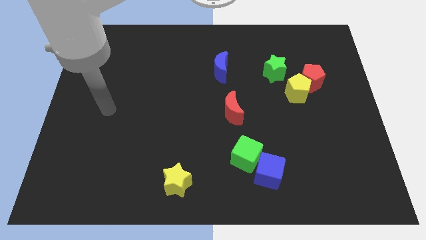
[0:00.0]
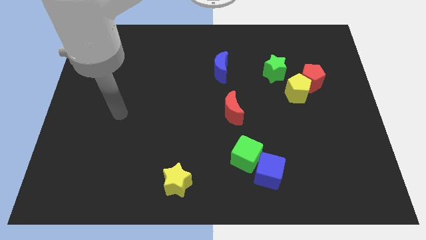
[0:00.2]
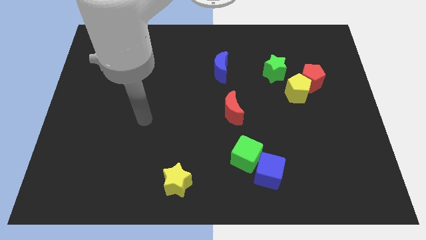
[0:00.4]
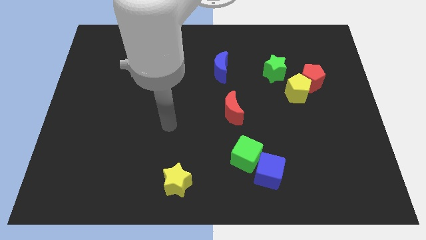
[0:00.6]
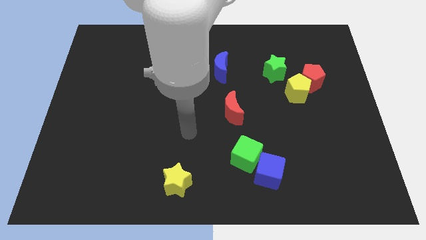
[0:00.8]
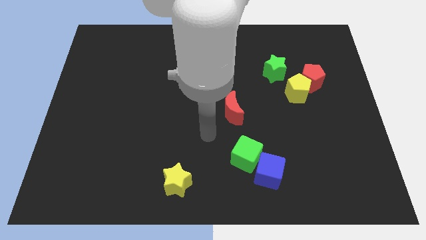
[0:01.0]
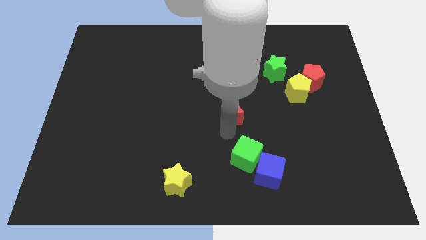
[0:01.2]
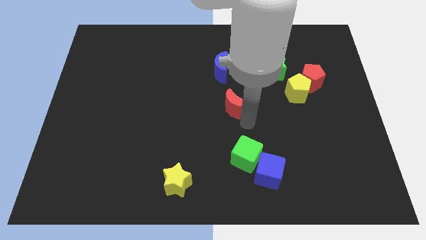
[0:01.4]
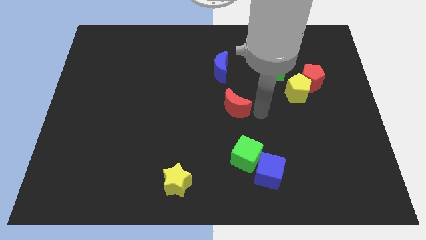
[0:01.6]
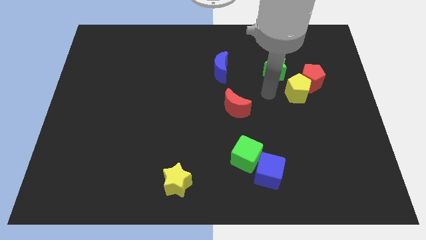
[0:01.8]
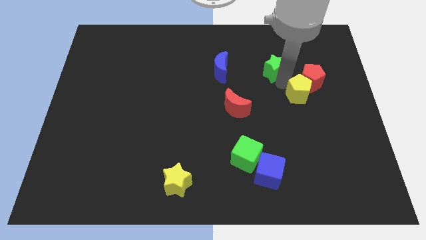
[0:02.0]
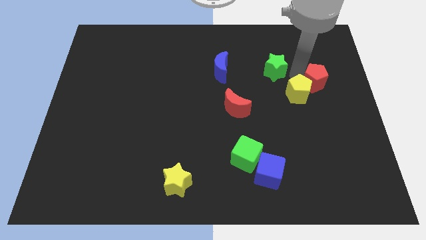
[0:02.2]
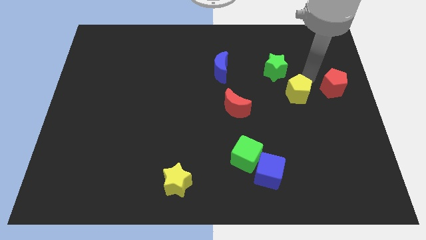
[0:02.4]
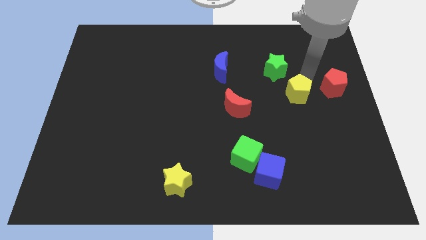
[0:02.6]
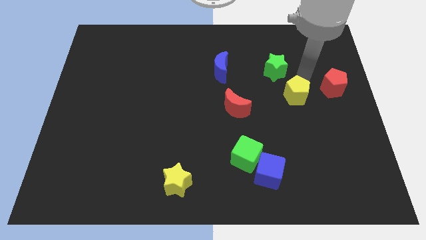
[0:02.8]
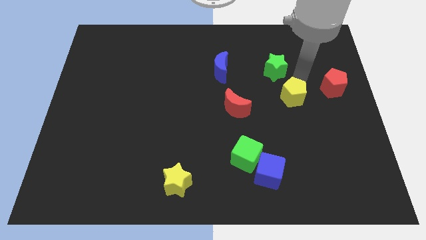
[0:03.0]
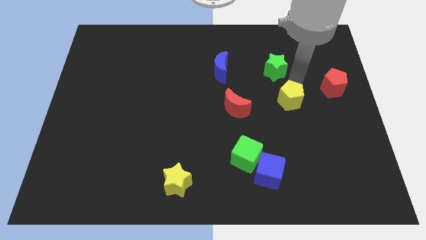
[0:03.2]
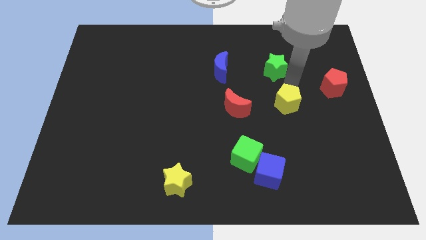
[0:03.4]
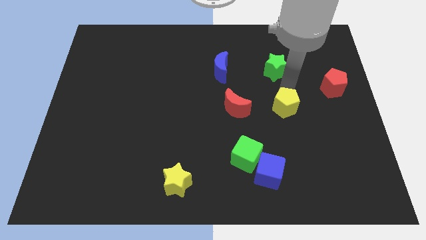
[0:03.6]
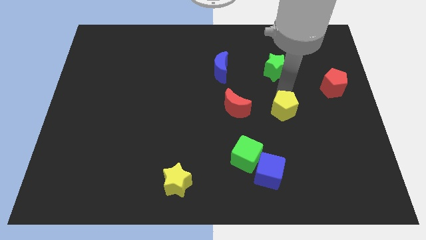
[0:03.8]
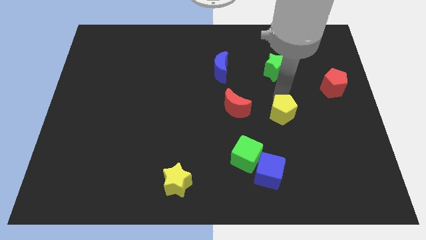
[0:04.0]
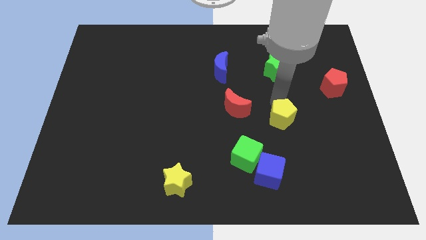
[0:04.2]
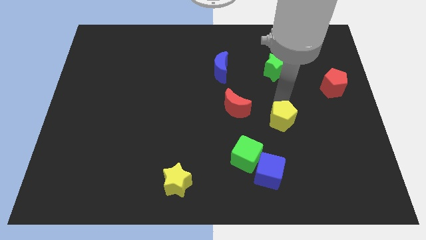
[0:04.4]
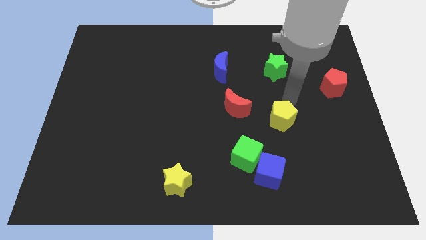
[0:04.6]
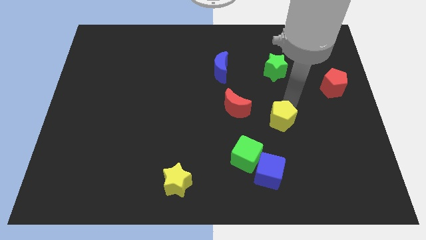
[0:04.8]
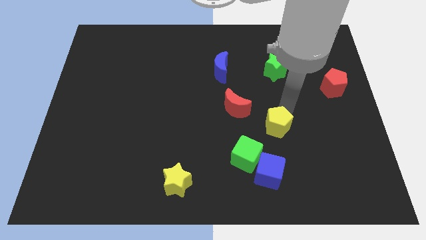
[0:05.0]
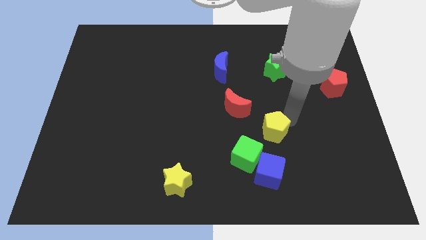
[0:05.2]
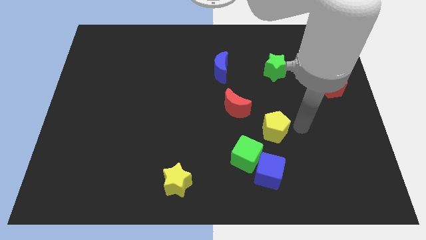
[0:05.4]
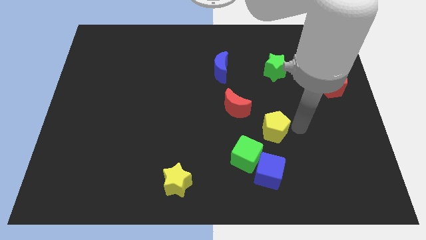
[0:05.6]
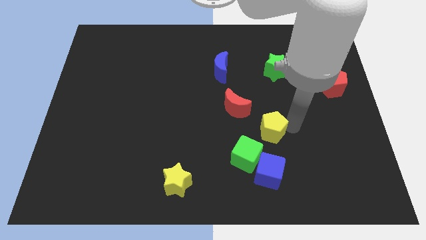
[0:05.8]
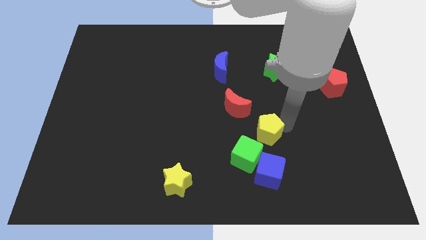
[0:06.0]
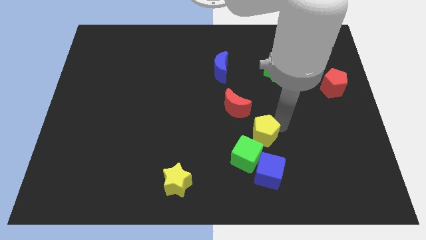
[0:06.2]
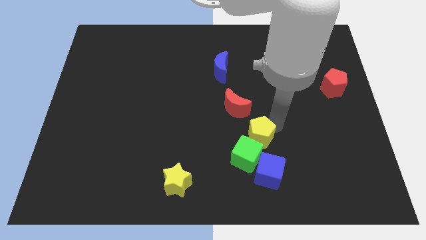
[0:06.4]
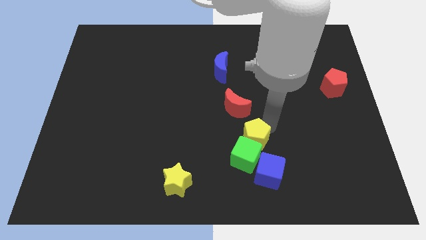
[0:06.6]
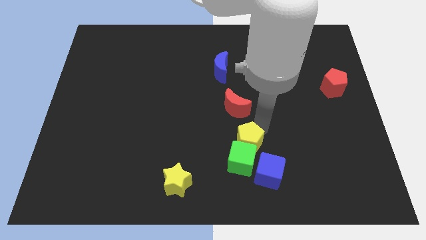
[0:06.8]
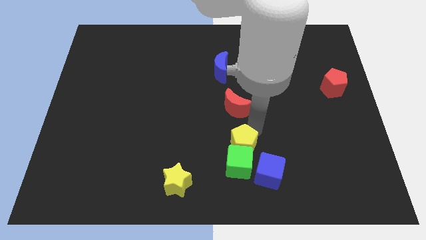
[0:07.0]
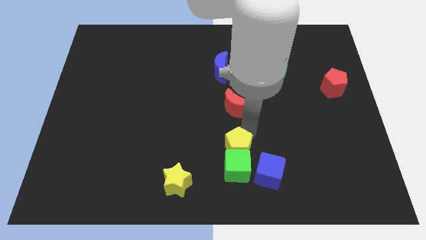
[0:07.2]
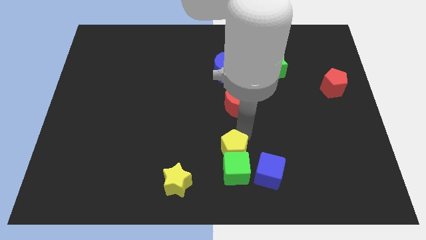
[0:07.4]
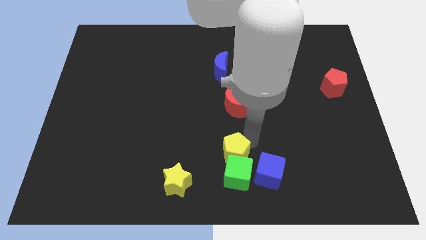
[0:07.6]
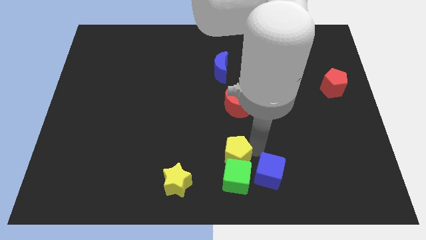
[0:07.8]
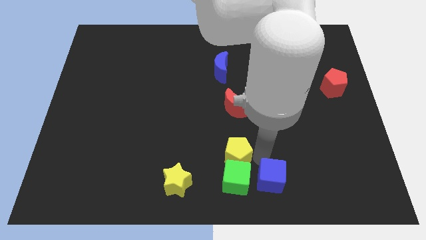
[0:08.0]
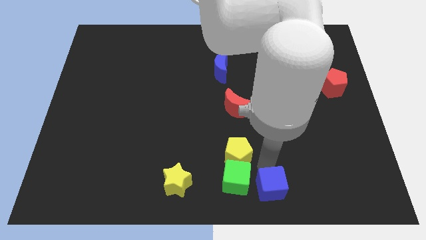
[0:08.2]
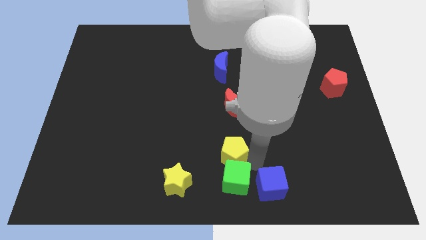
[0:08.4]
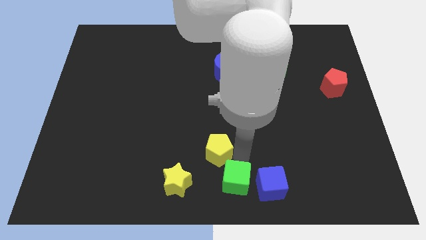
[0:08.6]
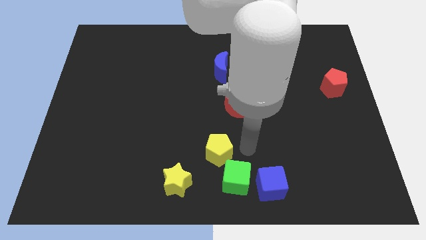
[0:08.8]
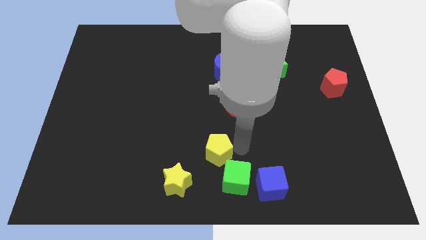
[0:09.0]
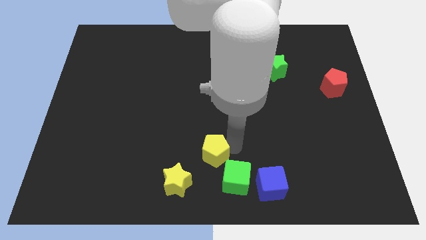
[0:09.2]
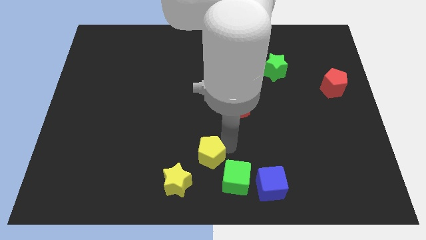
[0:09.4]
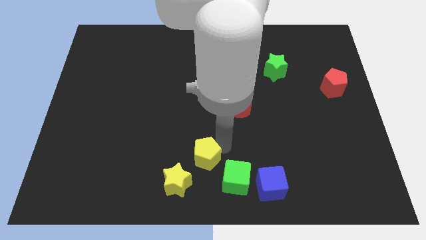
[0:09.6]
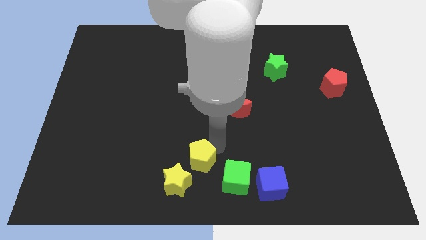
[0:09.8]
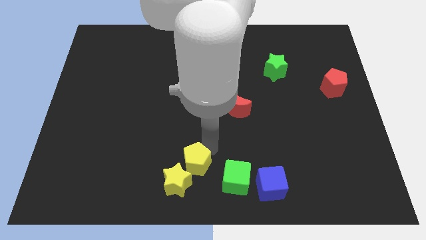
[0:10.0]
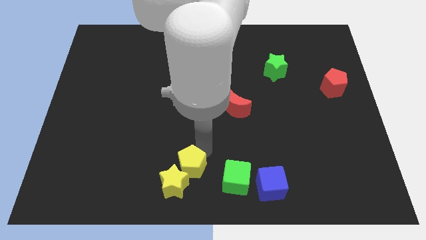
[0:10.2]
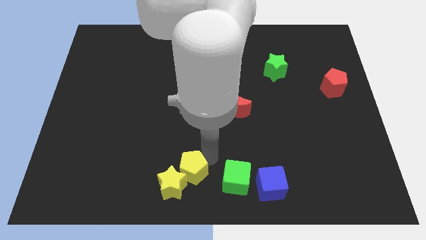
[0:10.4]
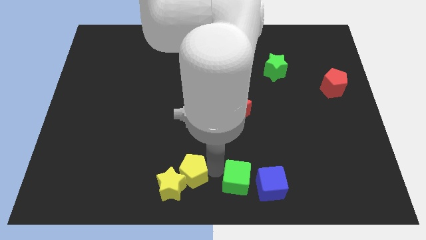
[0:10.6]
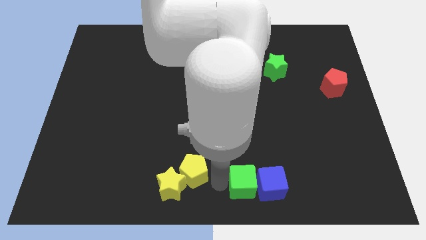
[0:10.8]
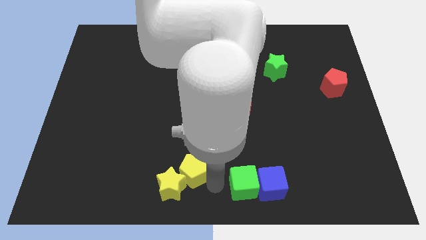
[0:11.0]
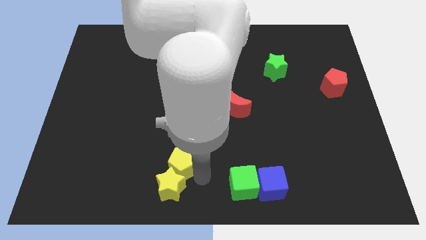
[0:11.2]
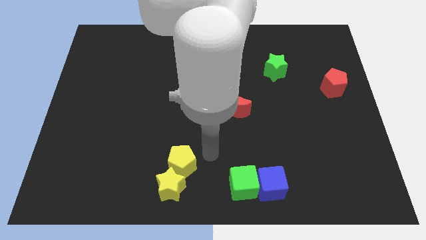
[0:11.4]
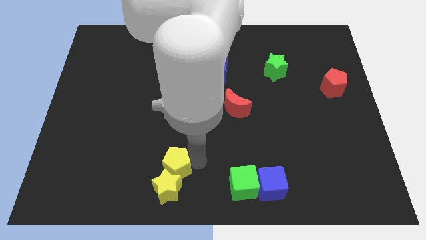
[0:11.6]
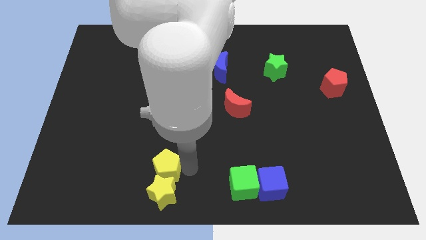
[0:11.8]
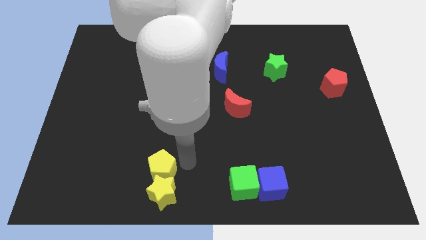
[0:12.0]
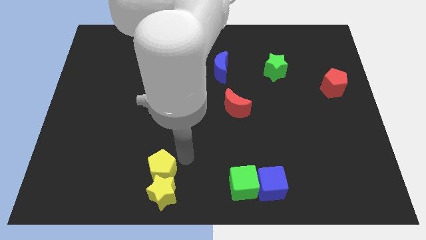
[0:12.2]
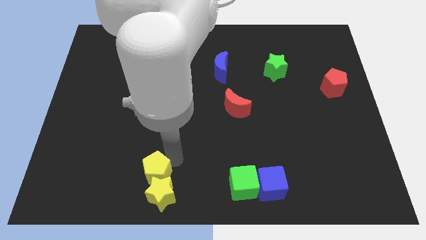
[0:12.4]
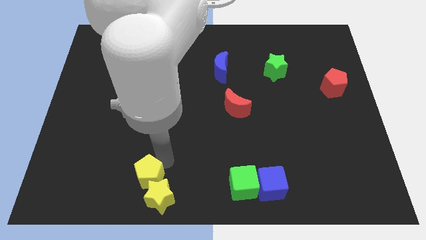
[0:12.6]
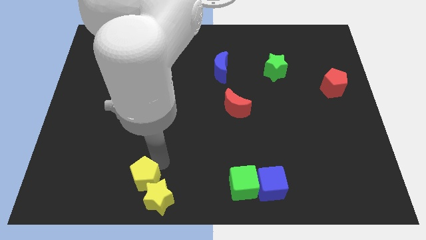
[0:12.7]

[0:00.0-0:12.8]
move the yellow pentagon to the left of the yellow star

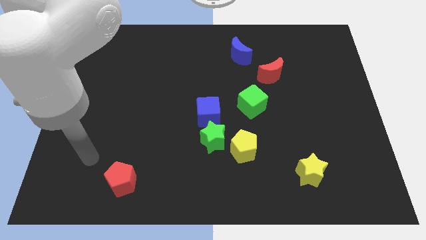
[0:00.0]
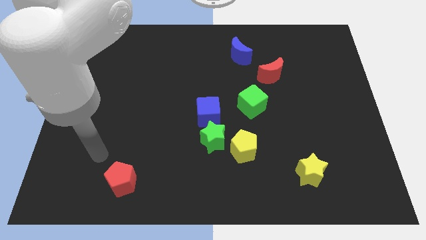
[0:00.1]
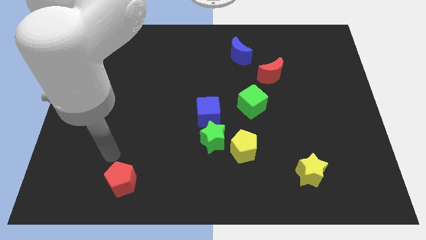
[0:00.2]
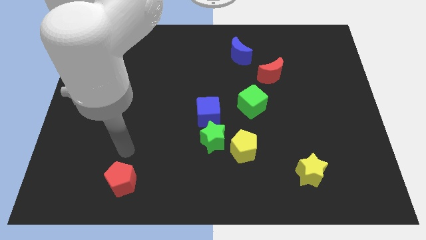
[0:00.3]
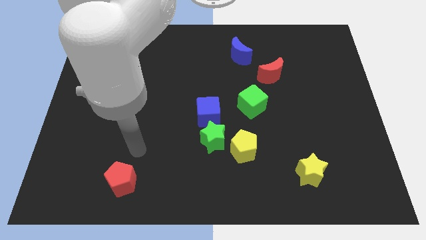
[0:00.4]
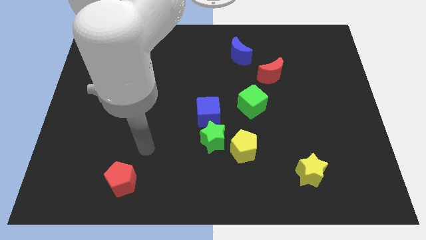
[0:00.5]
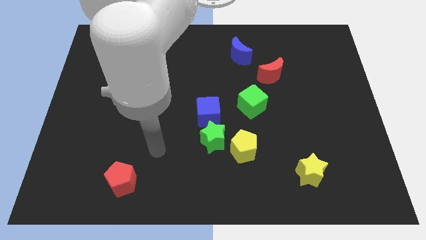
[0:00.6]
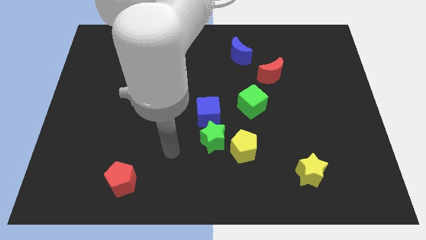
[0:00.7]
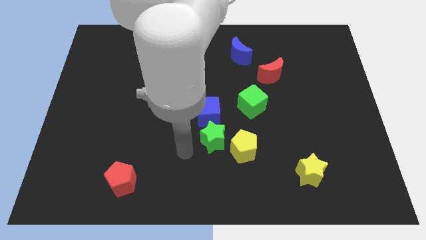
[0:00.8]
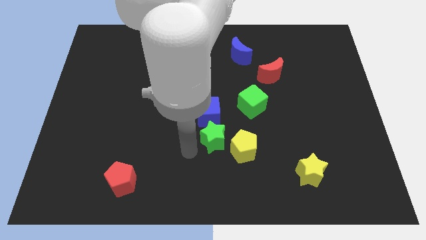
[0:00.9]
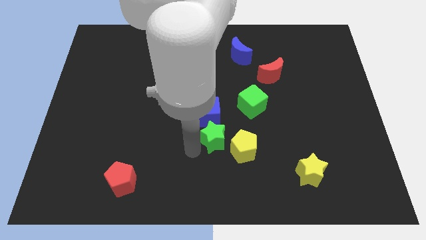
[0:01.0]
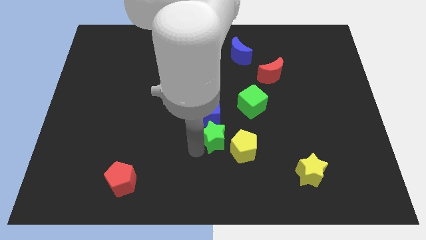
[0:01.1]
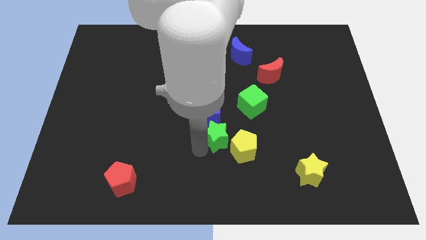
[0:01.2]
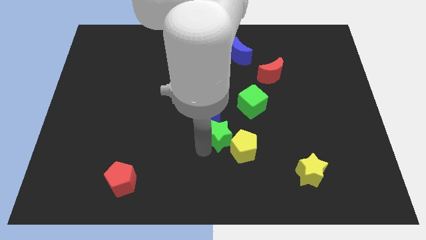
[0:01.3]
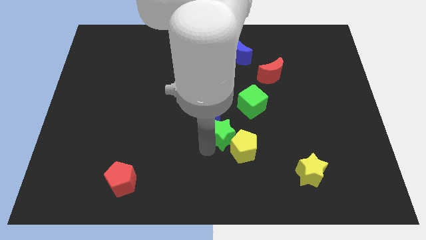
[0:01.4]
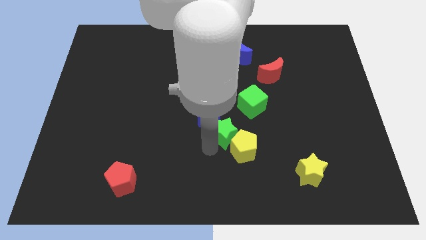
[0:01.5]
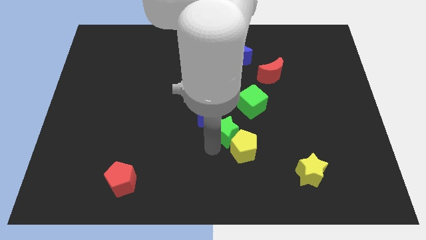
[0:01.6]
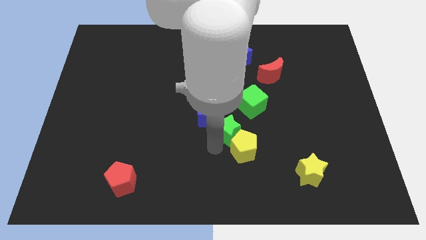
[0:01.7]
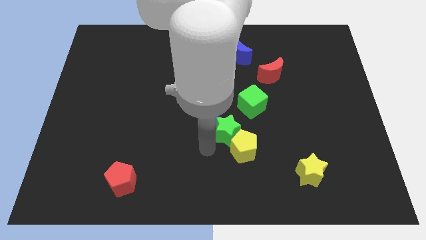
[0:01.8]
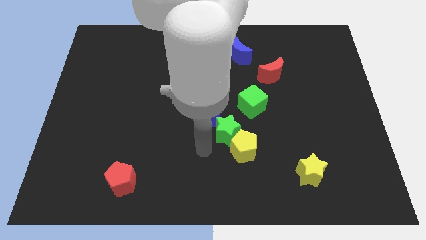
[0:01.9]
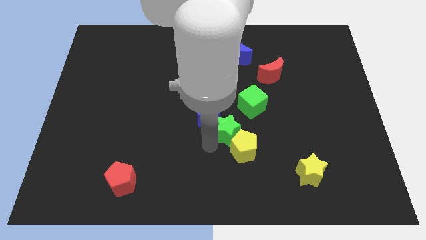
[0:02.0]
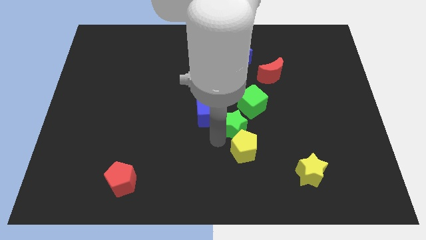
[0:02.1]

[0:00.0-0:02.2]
push the green star to the right of the blue cube
